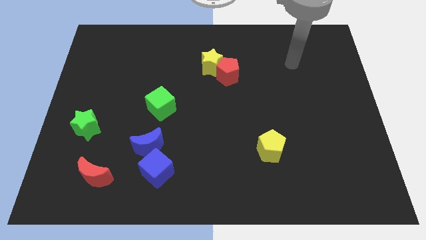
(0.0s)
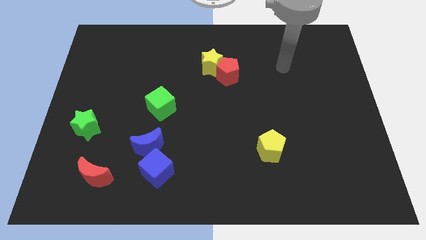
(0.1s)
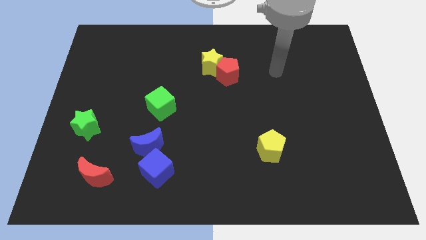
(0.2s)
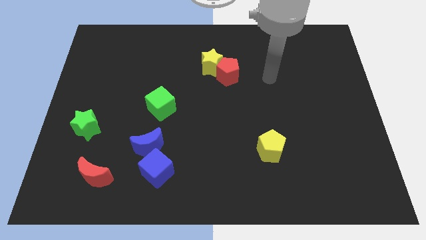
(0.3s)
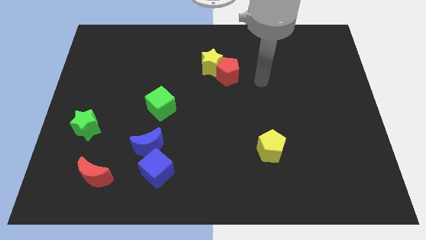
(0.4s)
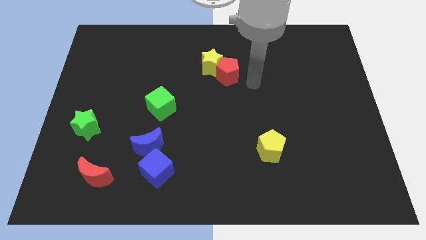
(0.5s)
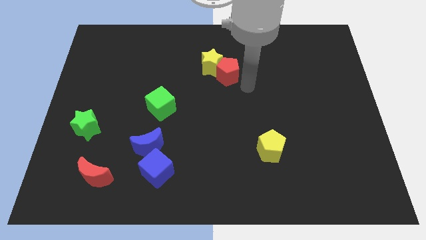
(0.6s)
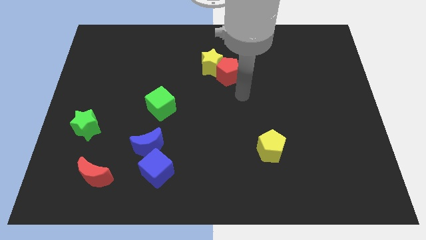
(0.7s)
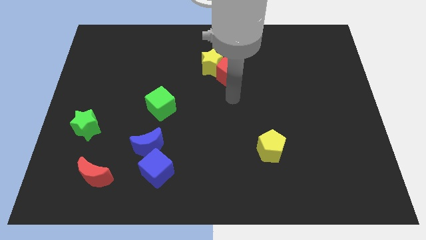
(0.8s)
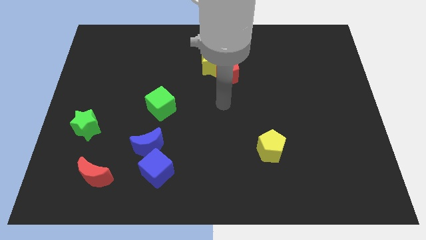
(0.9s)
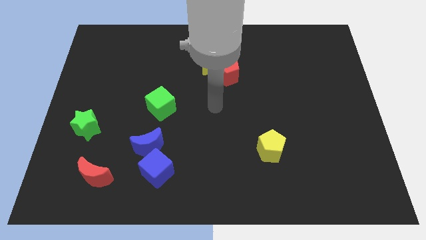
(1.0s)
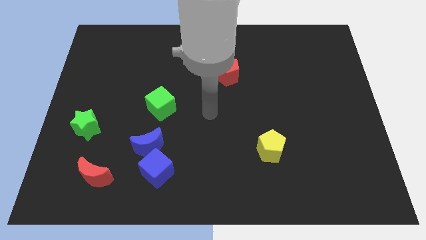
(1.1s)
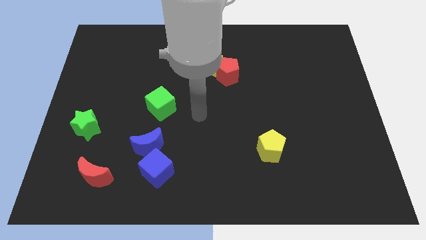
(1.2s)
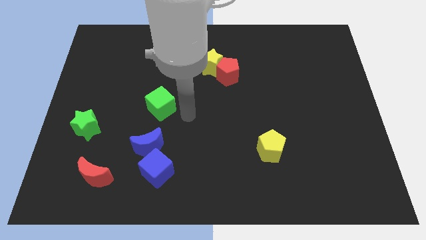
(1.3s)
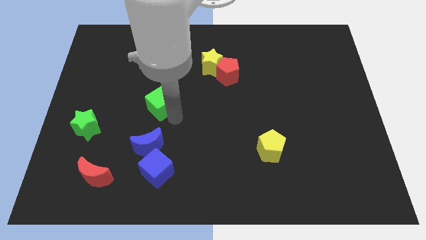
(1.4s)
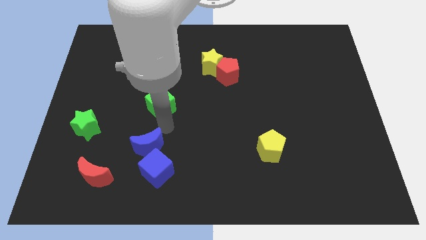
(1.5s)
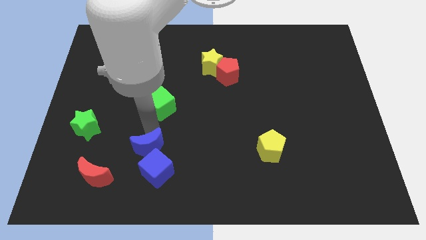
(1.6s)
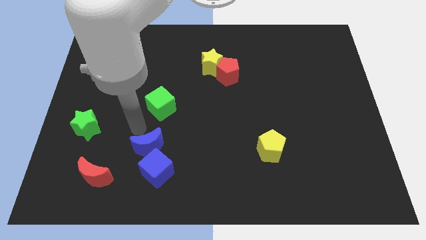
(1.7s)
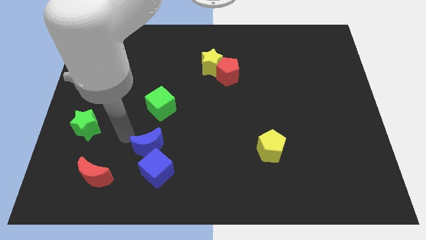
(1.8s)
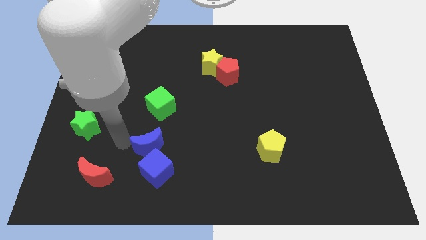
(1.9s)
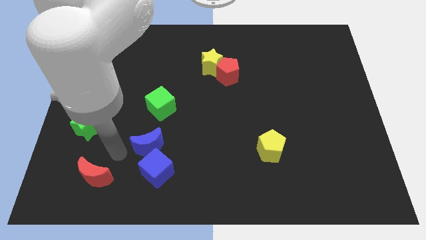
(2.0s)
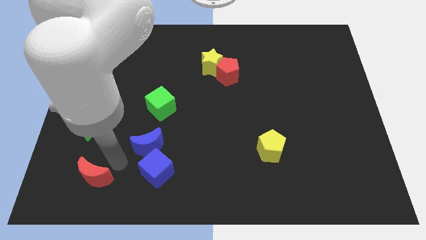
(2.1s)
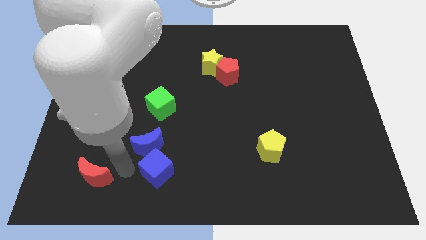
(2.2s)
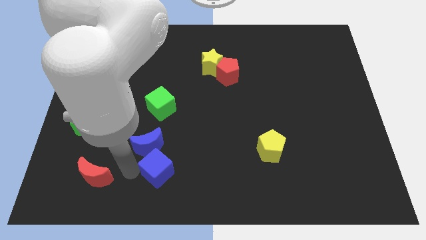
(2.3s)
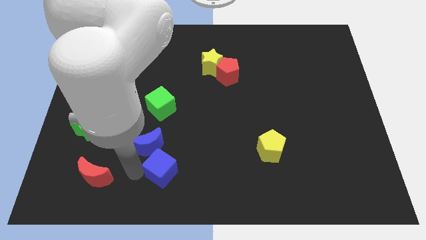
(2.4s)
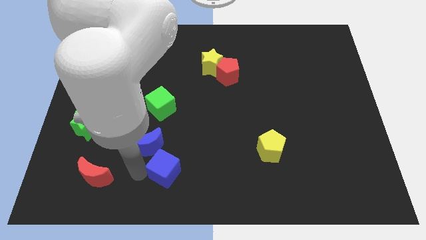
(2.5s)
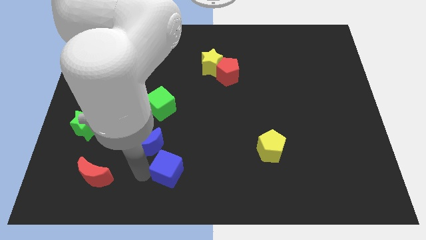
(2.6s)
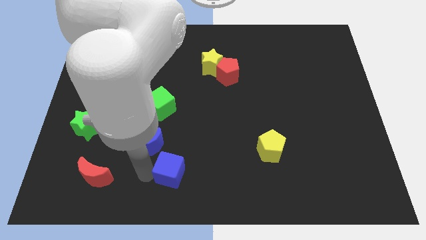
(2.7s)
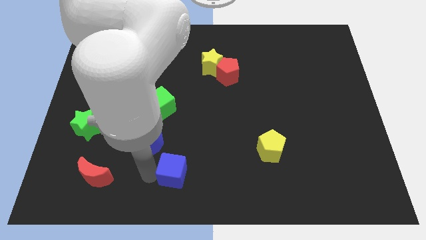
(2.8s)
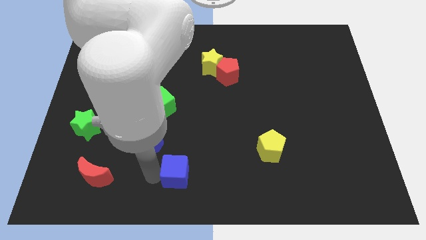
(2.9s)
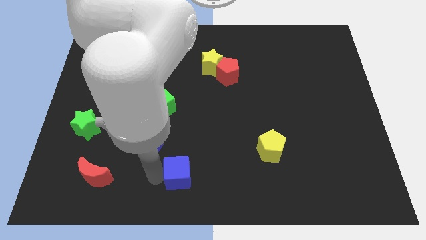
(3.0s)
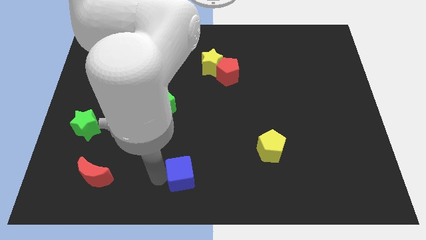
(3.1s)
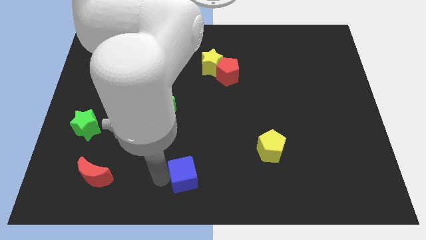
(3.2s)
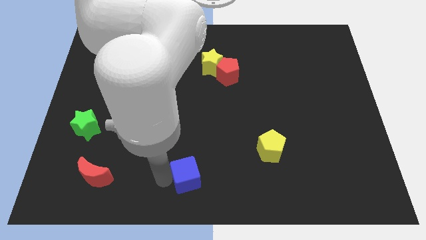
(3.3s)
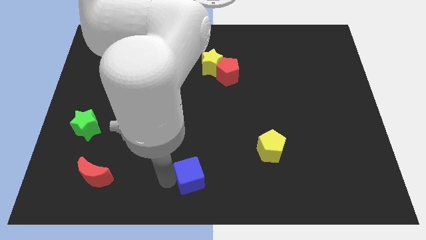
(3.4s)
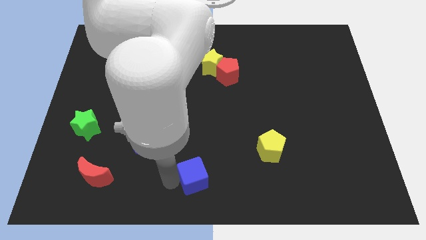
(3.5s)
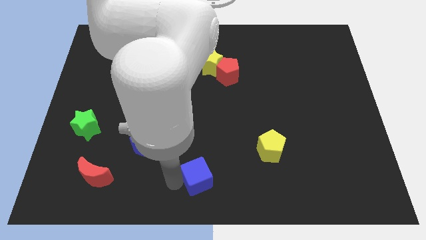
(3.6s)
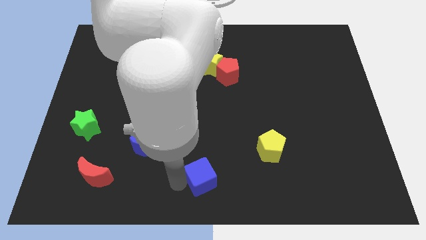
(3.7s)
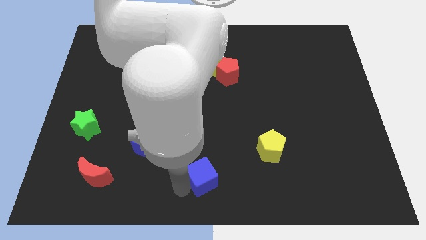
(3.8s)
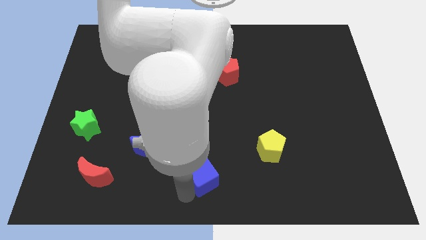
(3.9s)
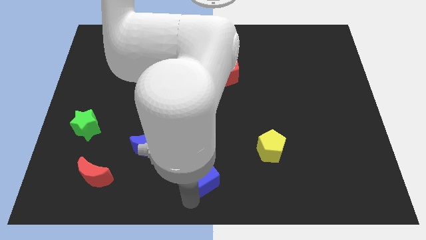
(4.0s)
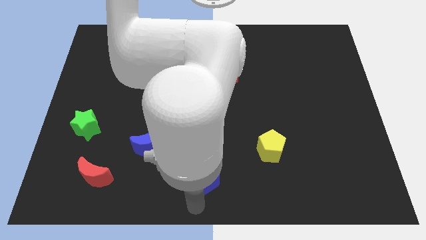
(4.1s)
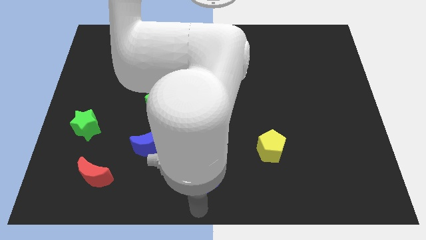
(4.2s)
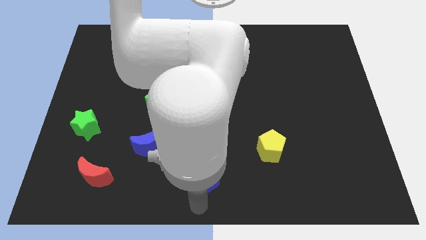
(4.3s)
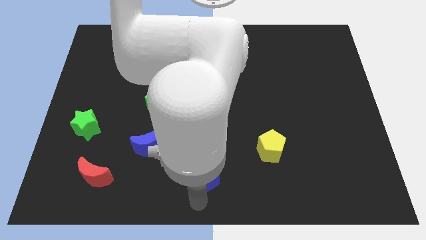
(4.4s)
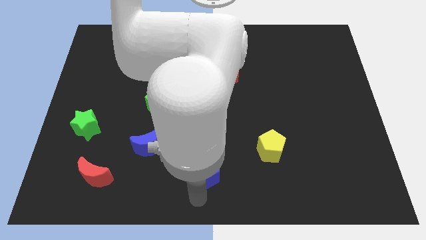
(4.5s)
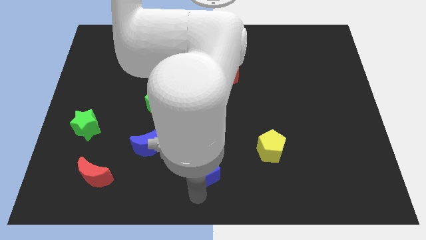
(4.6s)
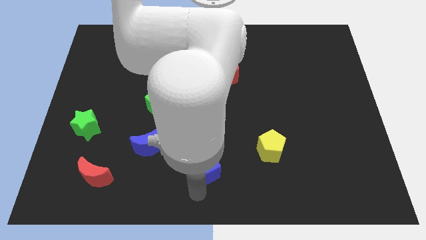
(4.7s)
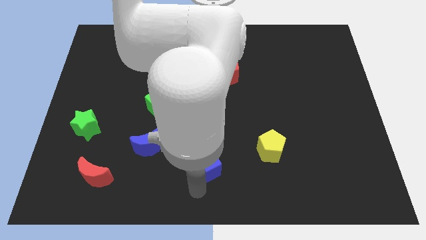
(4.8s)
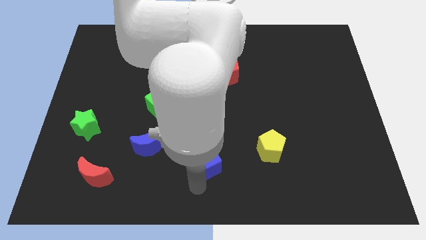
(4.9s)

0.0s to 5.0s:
push the blue cube just left of the yellow pentagon

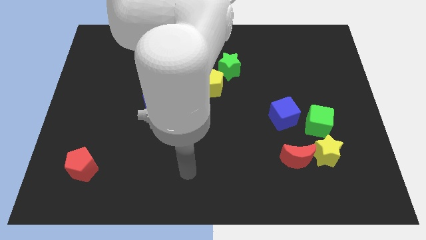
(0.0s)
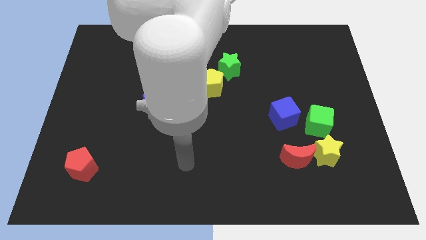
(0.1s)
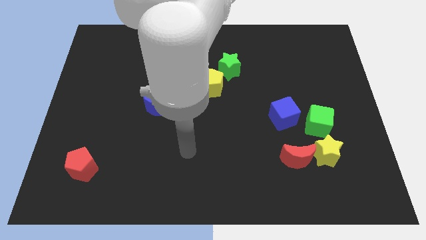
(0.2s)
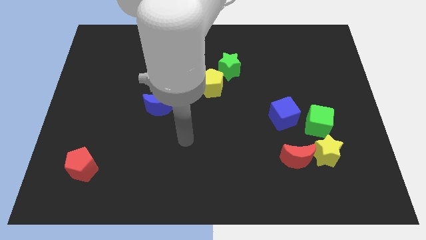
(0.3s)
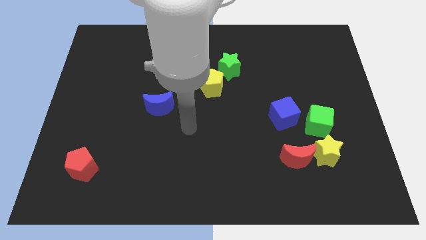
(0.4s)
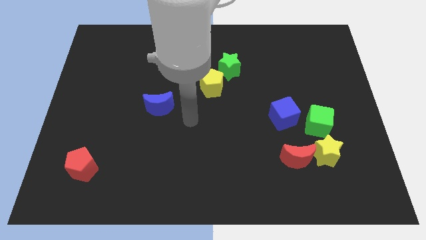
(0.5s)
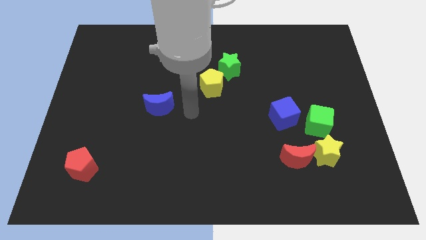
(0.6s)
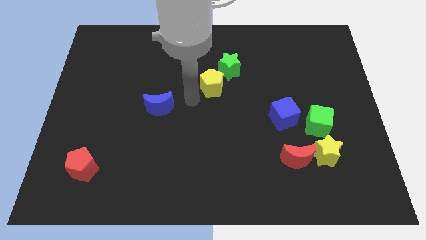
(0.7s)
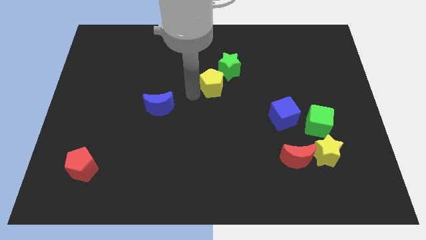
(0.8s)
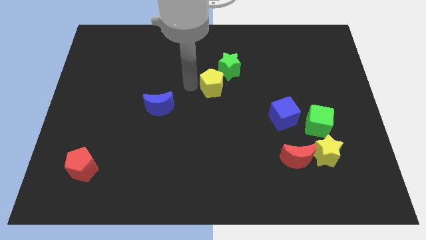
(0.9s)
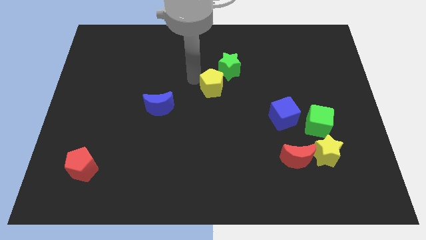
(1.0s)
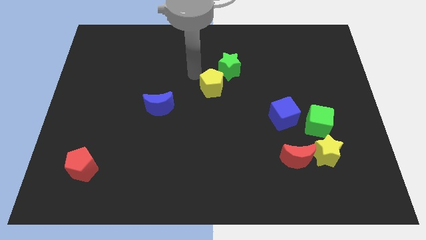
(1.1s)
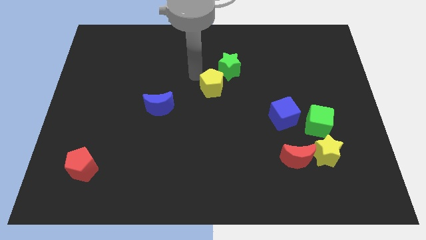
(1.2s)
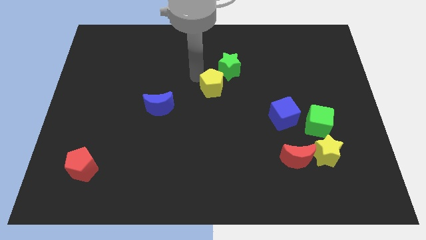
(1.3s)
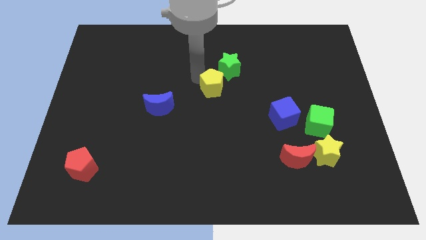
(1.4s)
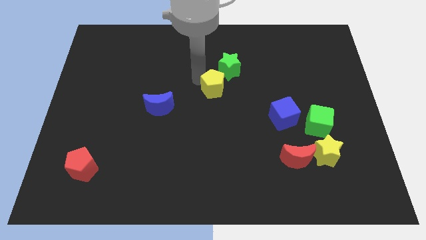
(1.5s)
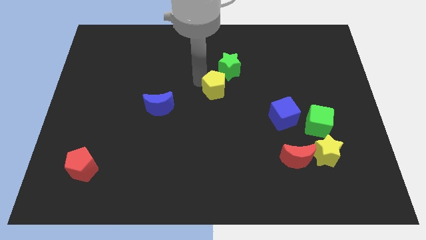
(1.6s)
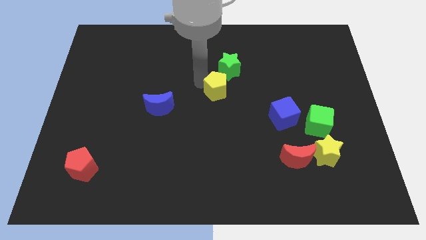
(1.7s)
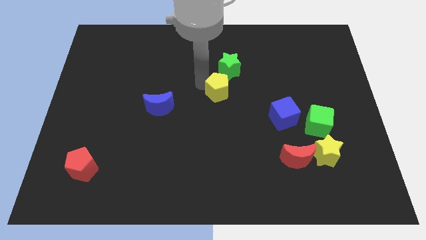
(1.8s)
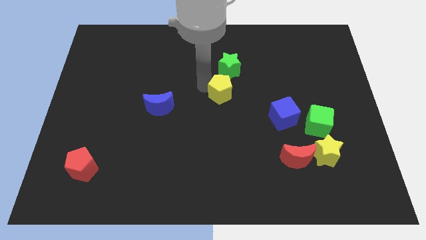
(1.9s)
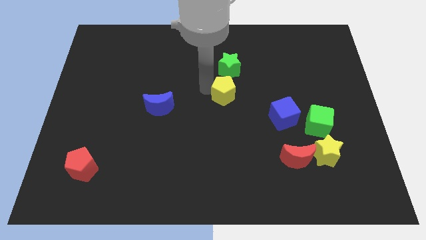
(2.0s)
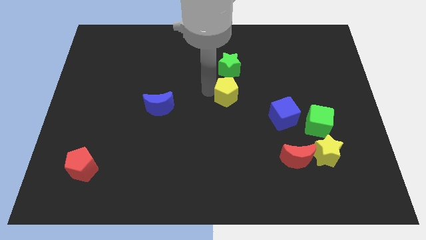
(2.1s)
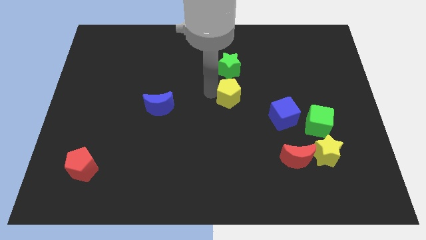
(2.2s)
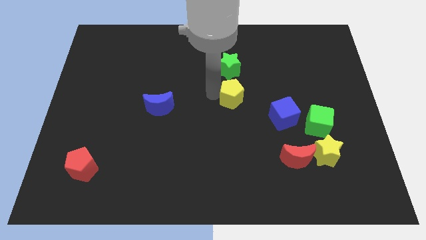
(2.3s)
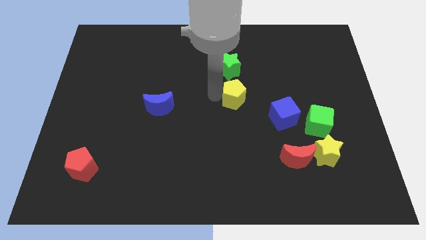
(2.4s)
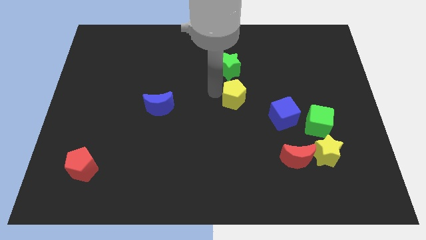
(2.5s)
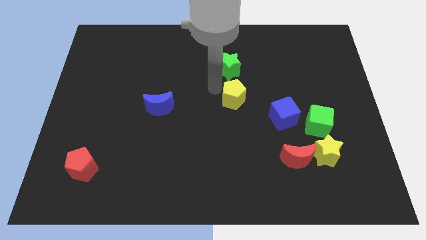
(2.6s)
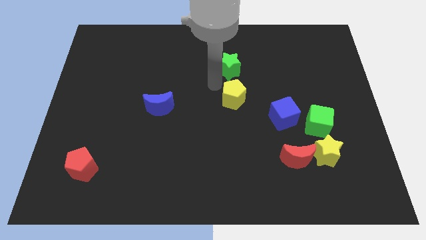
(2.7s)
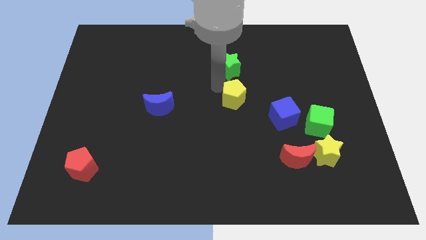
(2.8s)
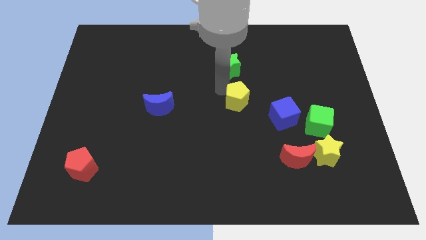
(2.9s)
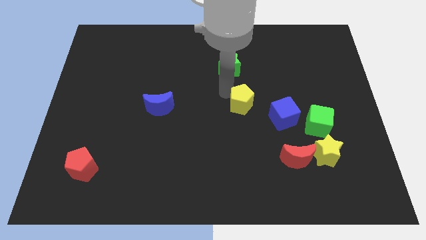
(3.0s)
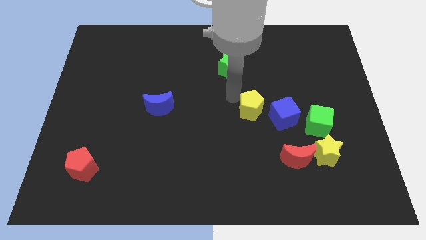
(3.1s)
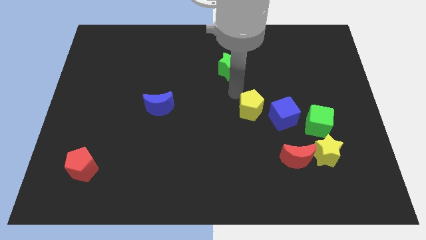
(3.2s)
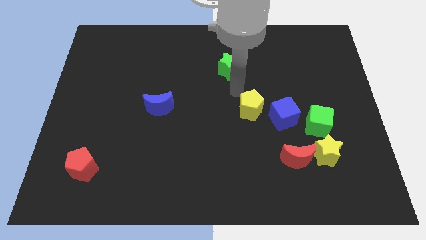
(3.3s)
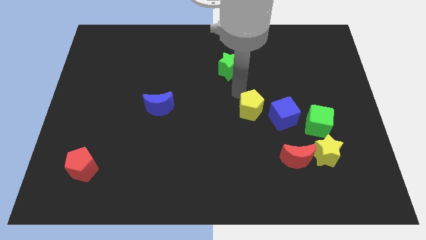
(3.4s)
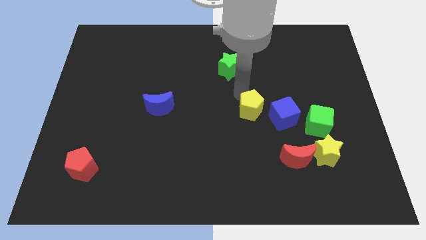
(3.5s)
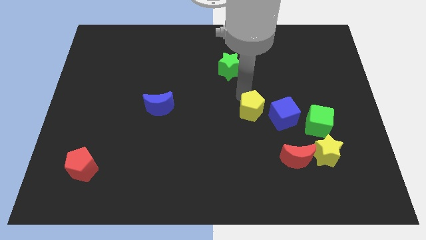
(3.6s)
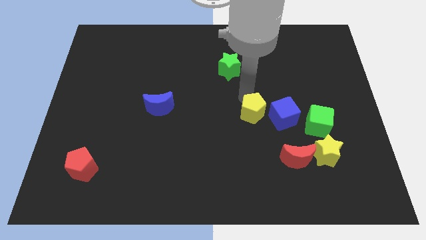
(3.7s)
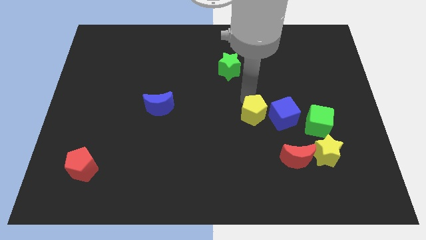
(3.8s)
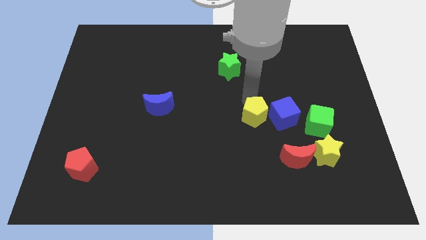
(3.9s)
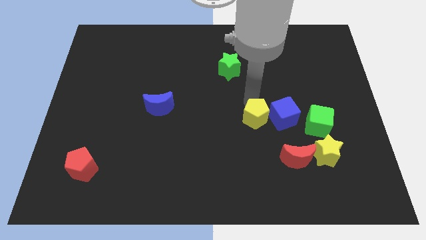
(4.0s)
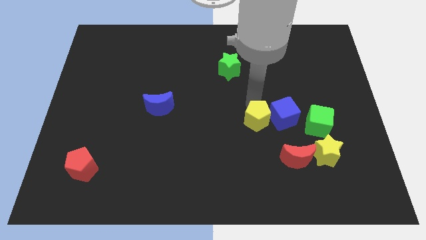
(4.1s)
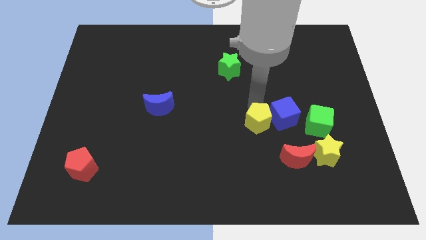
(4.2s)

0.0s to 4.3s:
slide the yellow pentagon to the top left of the red moon
